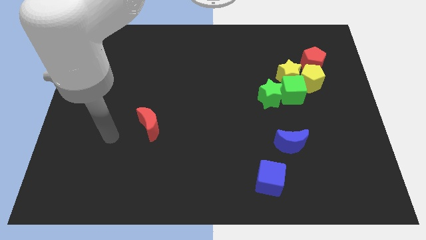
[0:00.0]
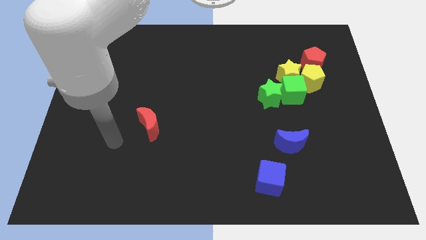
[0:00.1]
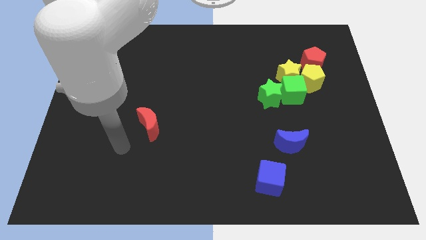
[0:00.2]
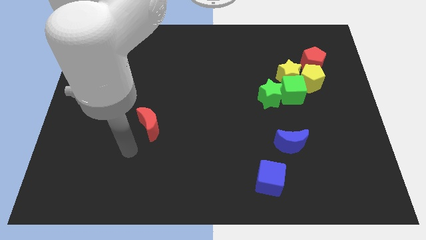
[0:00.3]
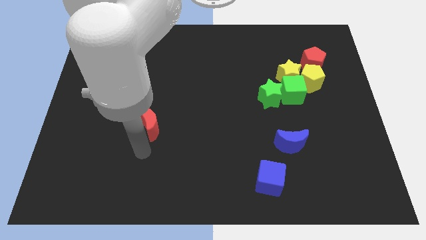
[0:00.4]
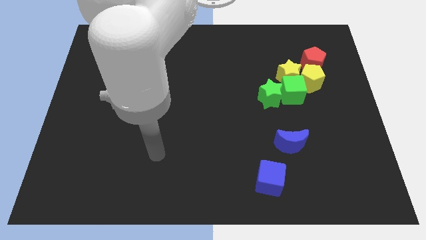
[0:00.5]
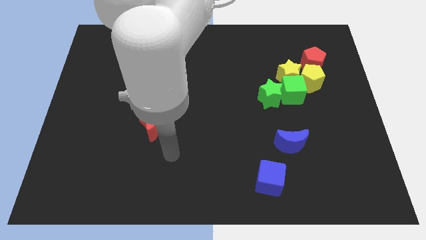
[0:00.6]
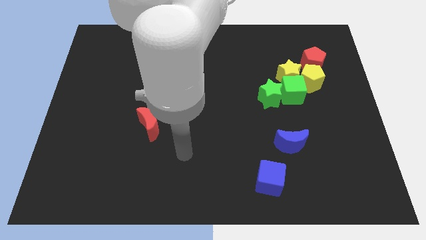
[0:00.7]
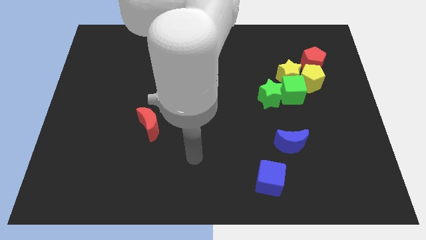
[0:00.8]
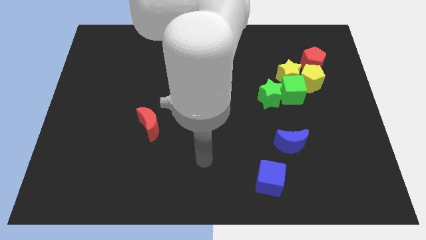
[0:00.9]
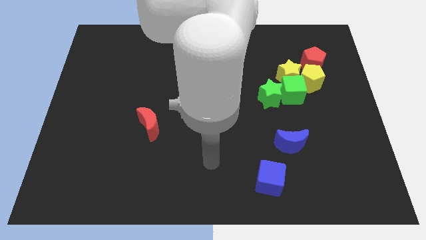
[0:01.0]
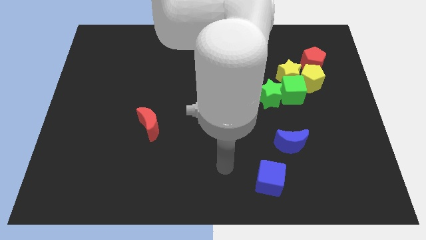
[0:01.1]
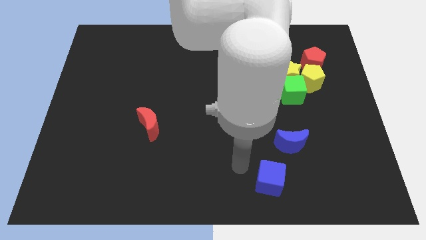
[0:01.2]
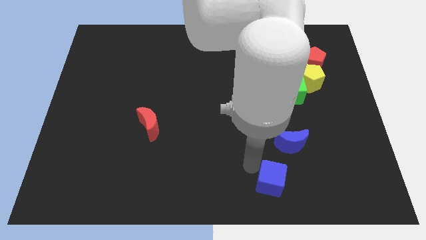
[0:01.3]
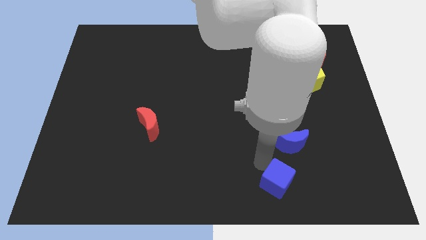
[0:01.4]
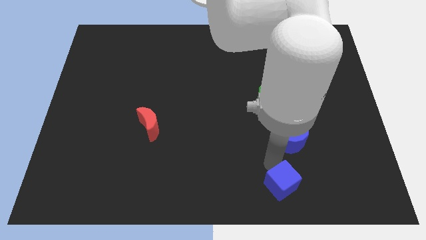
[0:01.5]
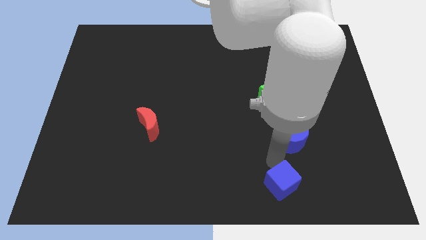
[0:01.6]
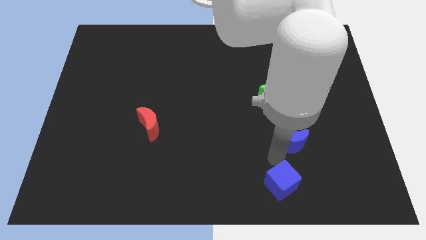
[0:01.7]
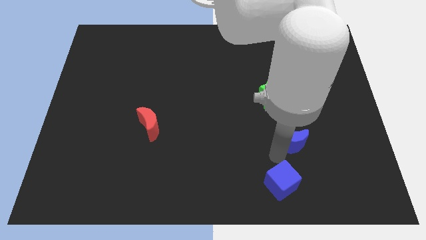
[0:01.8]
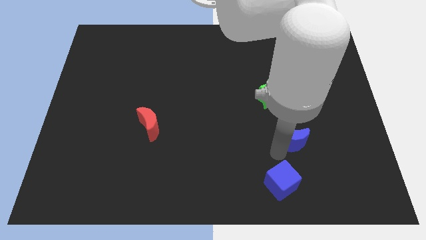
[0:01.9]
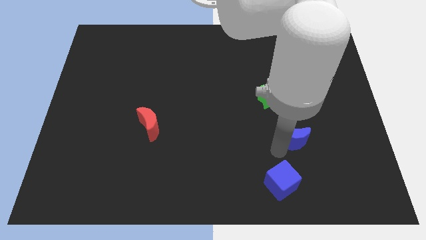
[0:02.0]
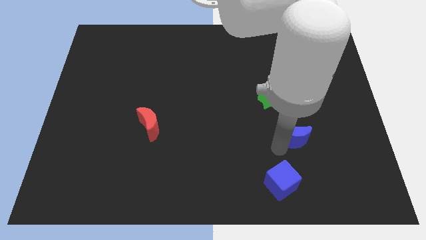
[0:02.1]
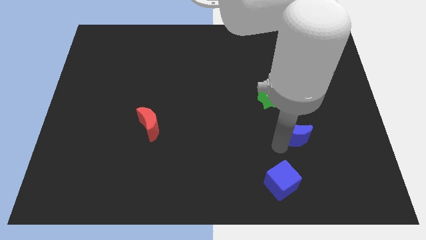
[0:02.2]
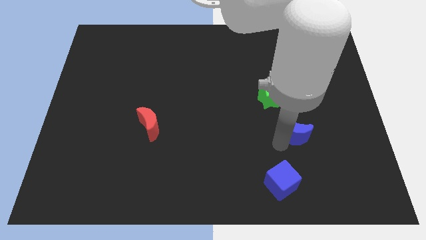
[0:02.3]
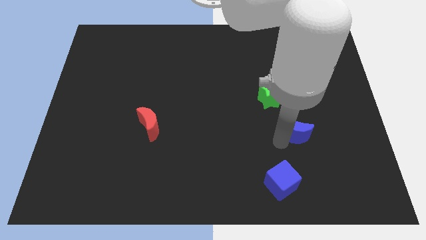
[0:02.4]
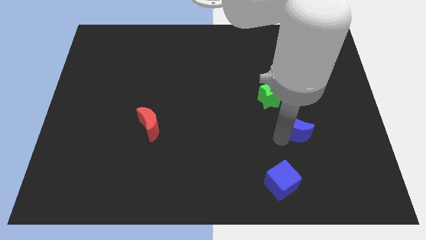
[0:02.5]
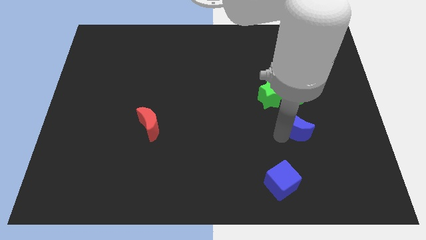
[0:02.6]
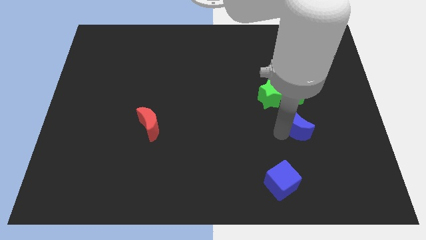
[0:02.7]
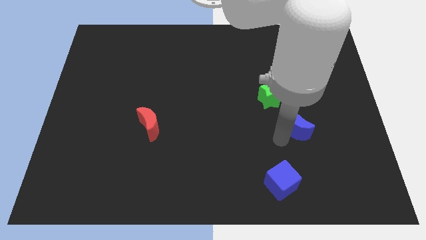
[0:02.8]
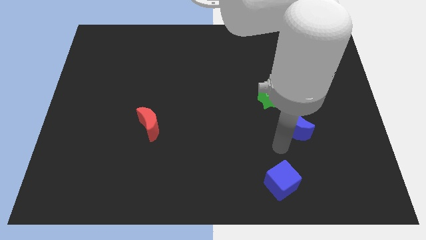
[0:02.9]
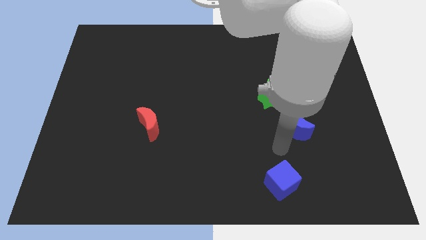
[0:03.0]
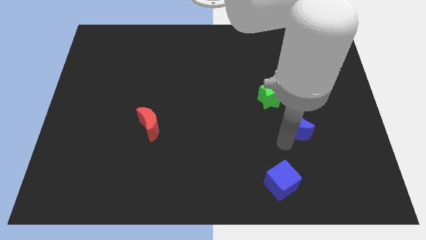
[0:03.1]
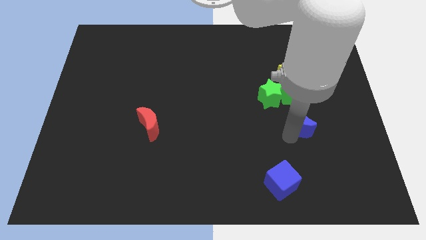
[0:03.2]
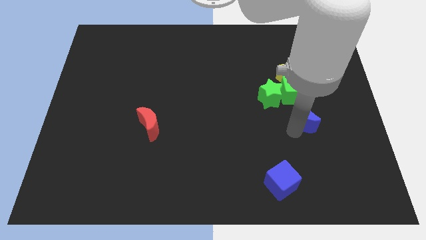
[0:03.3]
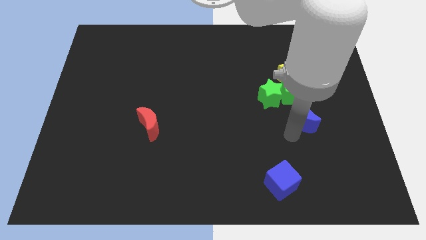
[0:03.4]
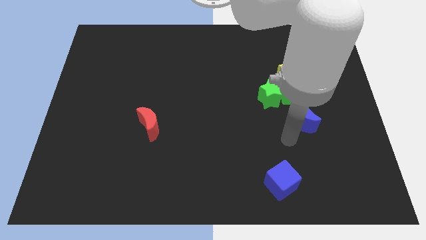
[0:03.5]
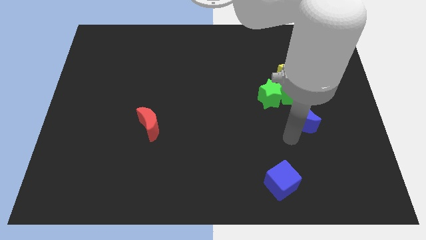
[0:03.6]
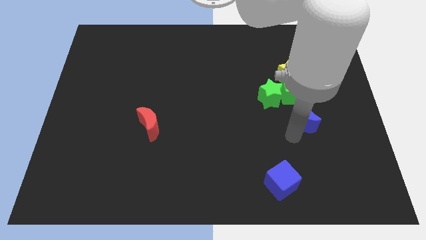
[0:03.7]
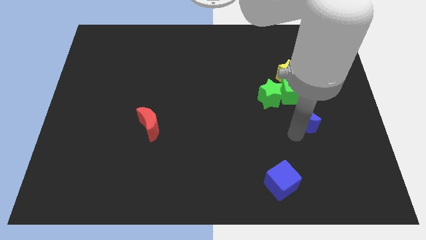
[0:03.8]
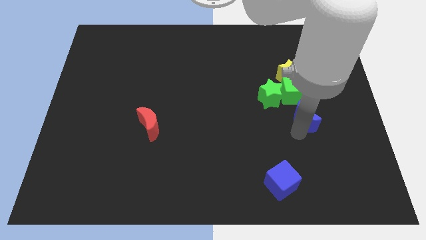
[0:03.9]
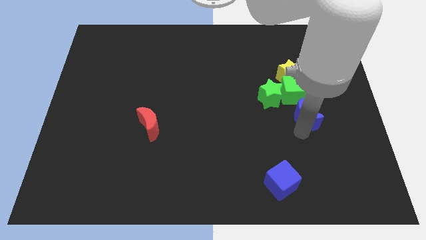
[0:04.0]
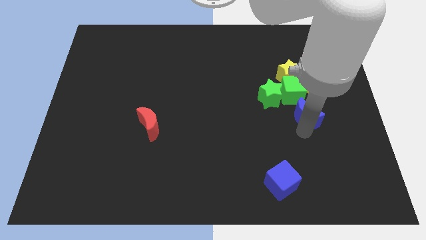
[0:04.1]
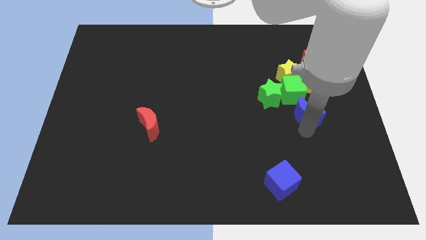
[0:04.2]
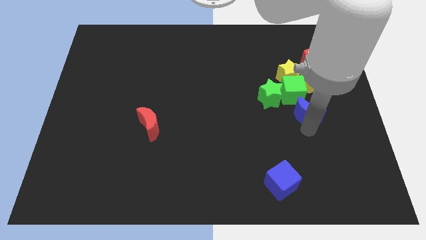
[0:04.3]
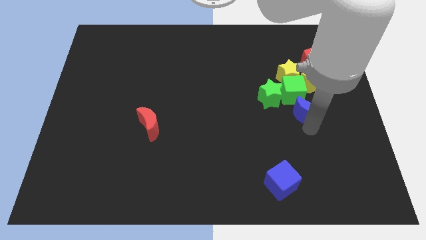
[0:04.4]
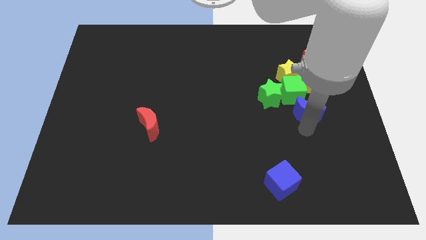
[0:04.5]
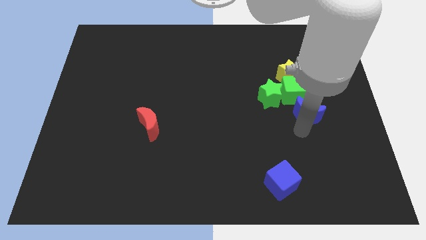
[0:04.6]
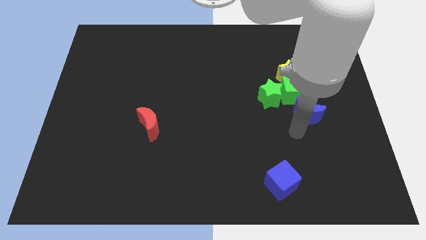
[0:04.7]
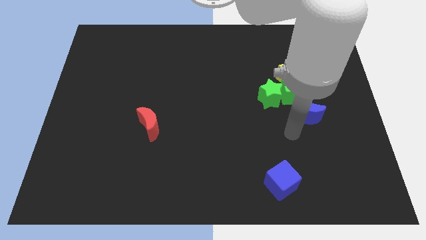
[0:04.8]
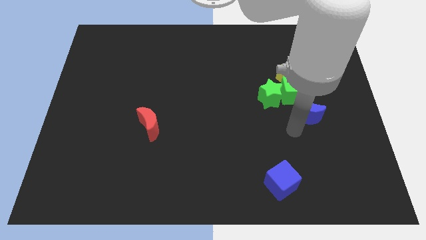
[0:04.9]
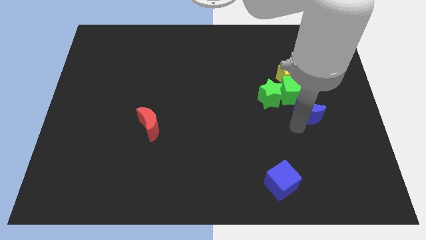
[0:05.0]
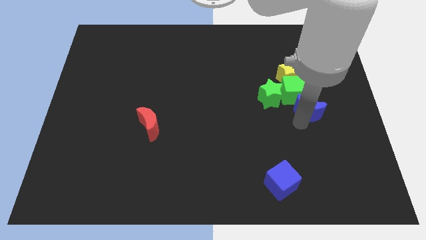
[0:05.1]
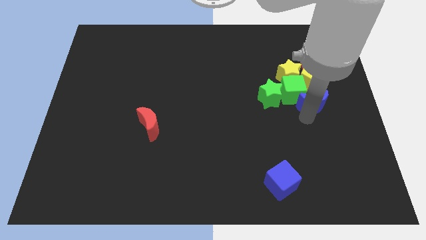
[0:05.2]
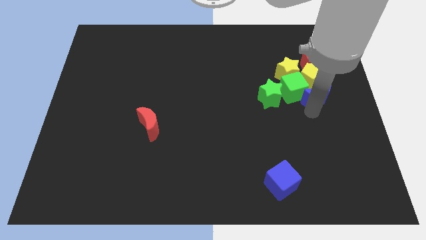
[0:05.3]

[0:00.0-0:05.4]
put the blue moon to the yellow pentagon
